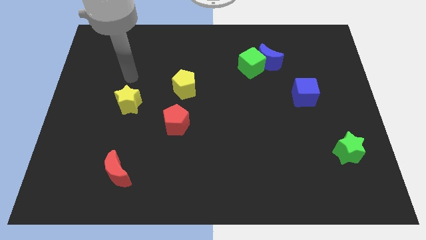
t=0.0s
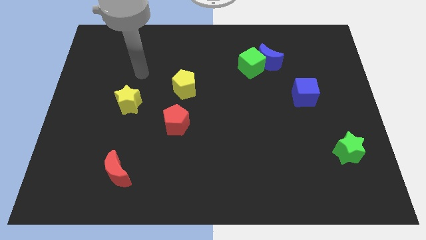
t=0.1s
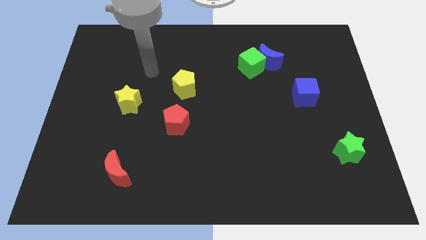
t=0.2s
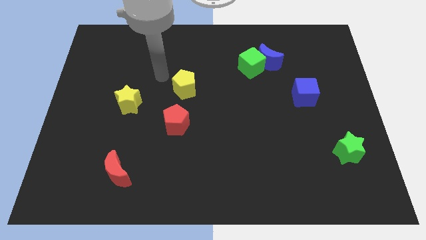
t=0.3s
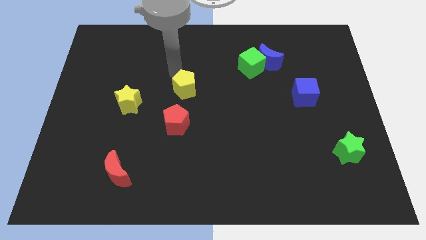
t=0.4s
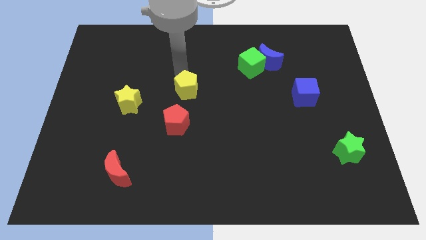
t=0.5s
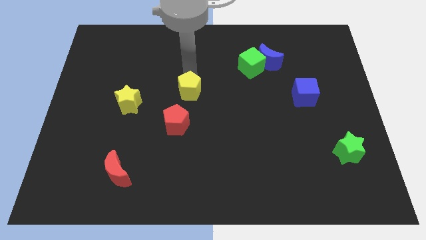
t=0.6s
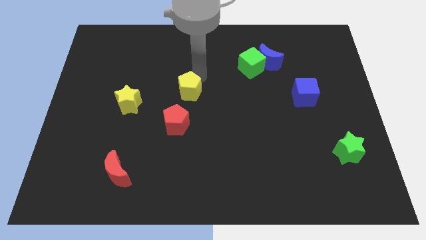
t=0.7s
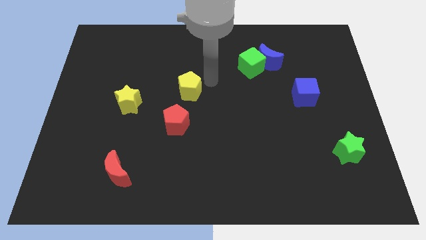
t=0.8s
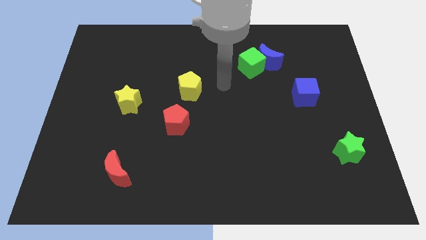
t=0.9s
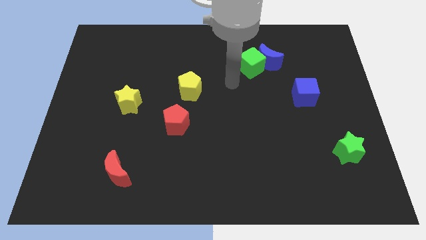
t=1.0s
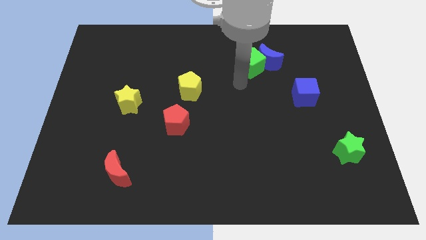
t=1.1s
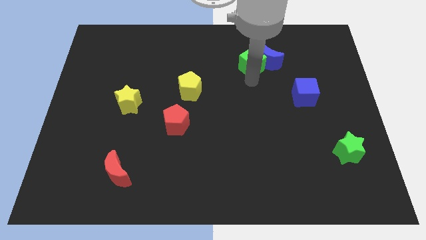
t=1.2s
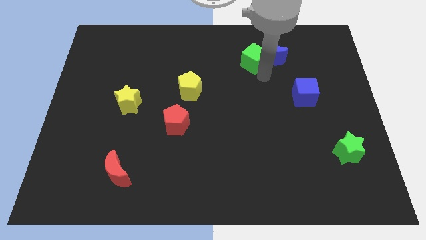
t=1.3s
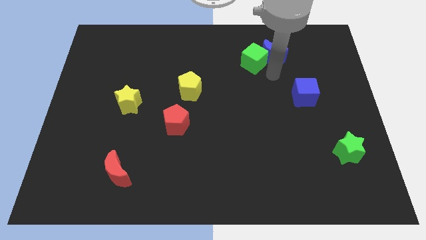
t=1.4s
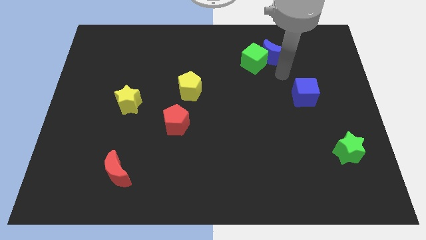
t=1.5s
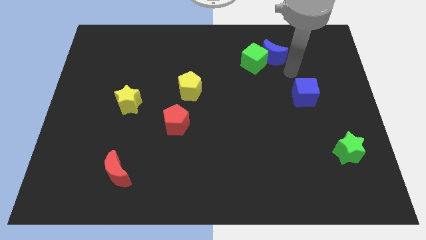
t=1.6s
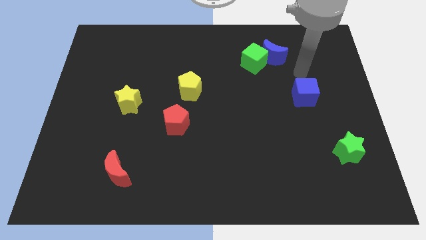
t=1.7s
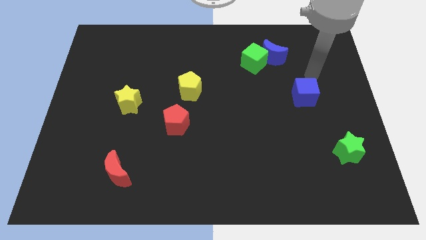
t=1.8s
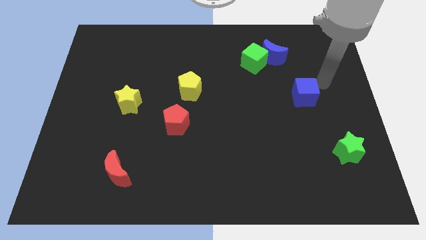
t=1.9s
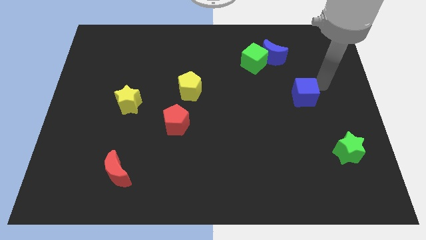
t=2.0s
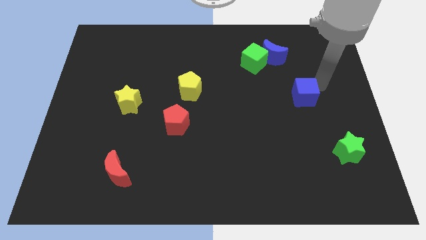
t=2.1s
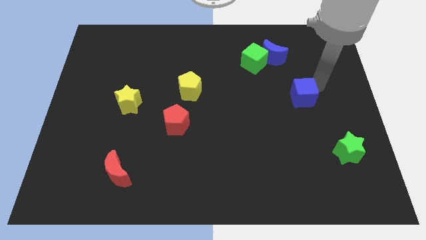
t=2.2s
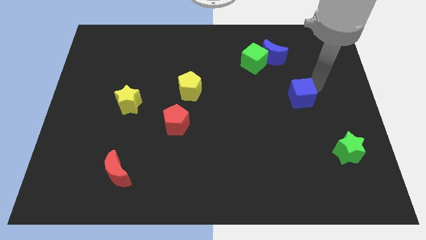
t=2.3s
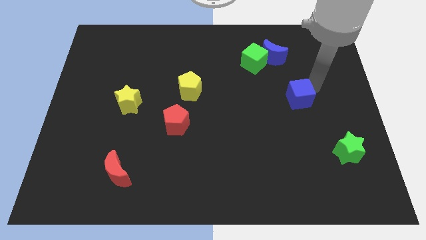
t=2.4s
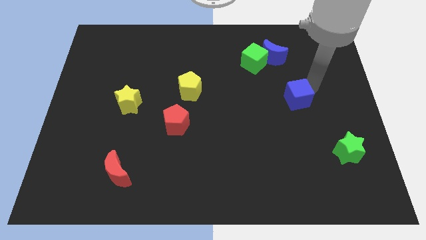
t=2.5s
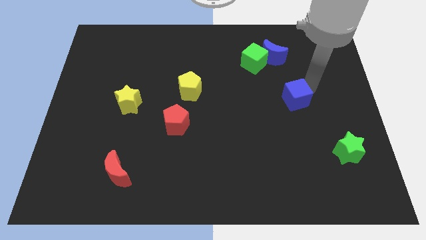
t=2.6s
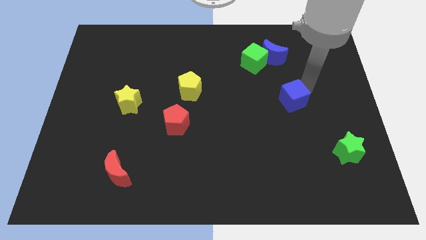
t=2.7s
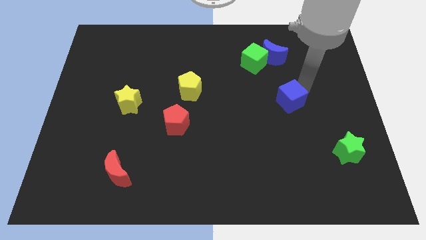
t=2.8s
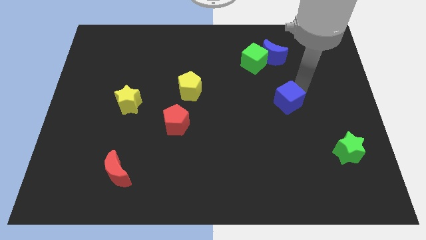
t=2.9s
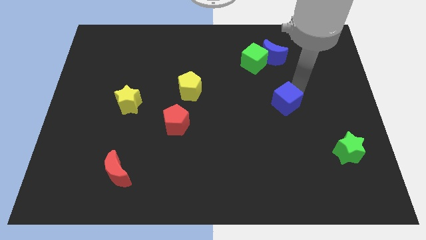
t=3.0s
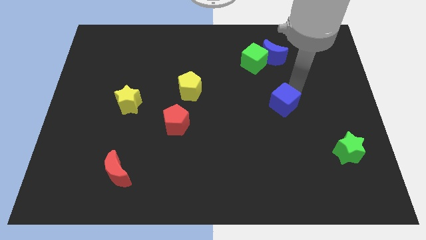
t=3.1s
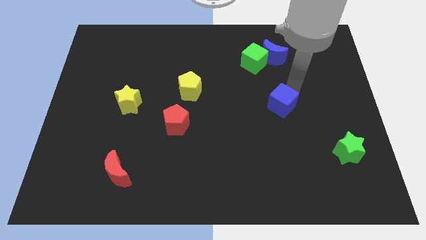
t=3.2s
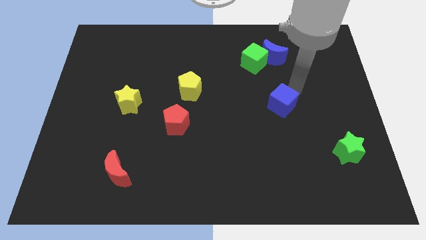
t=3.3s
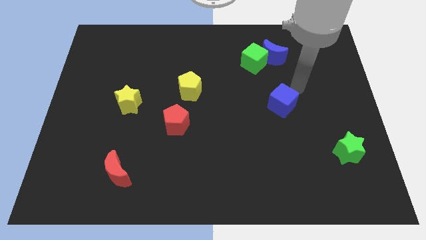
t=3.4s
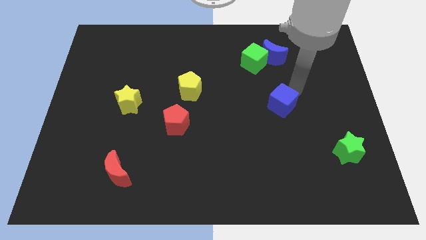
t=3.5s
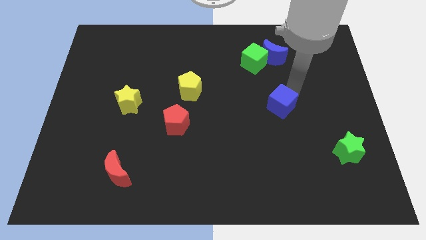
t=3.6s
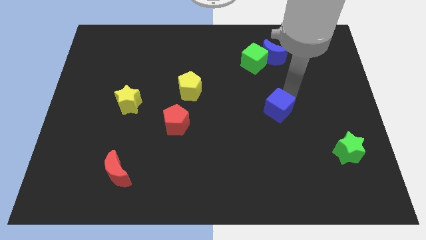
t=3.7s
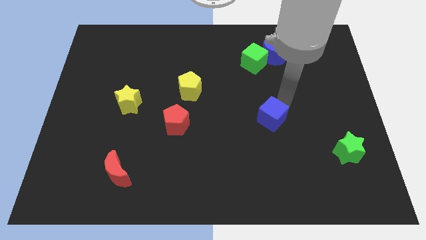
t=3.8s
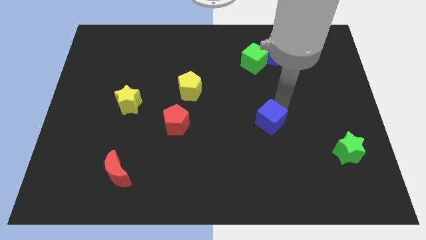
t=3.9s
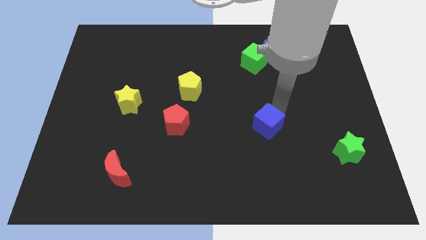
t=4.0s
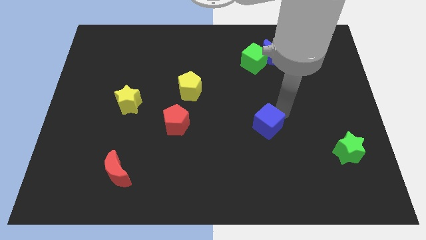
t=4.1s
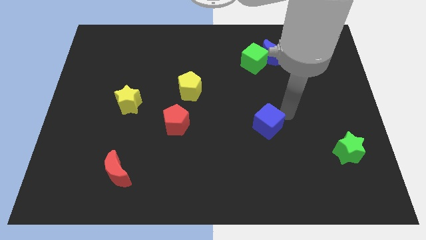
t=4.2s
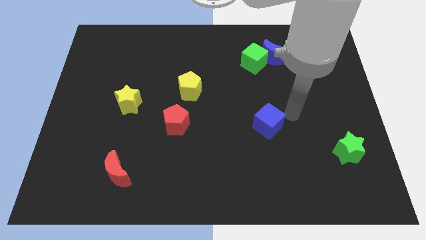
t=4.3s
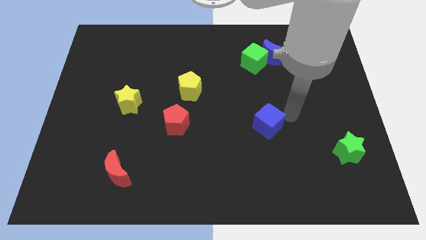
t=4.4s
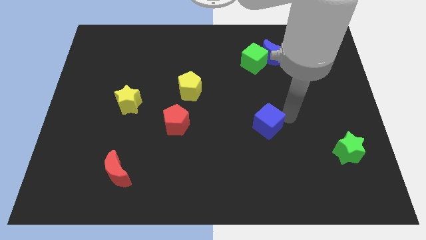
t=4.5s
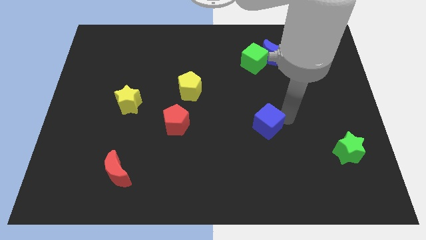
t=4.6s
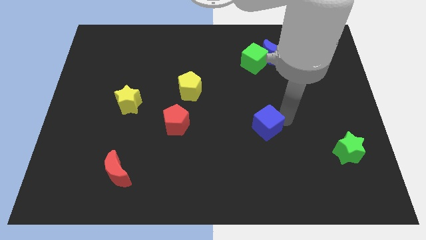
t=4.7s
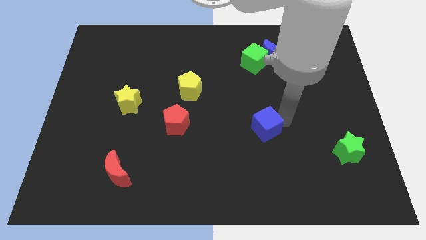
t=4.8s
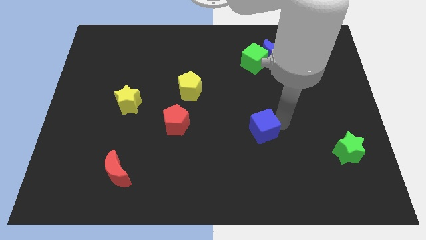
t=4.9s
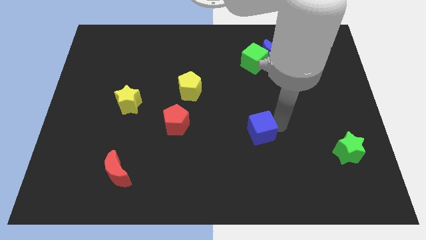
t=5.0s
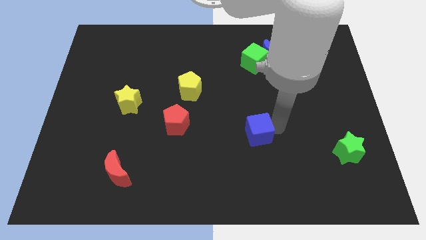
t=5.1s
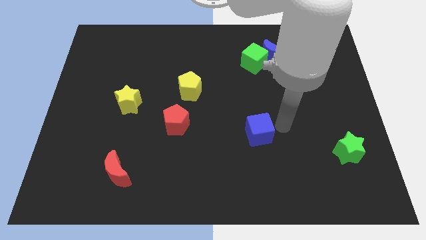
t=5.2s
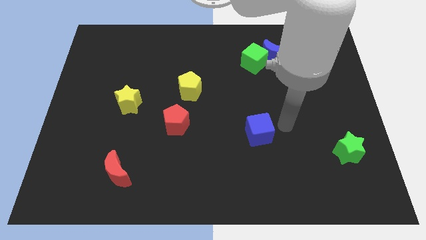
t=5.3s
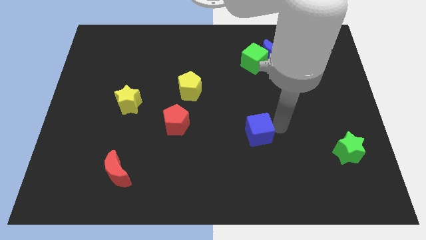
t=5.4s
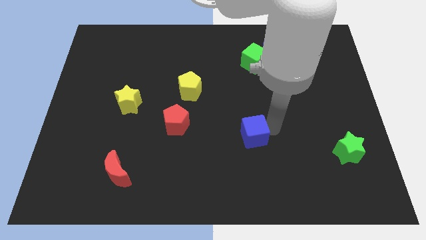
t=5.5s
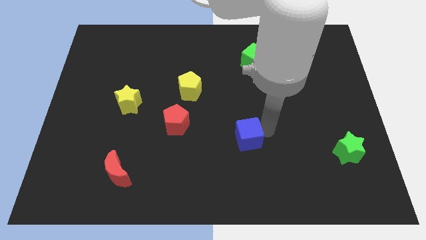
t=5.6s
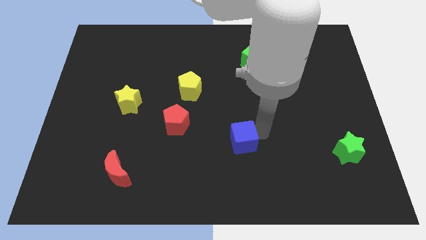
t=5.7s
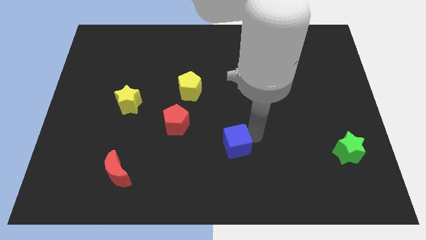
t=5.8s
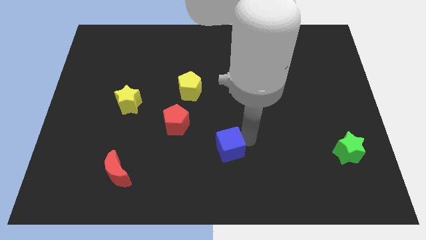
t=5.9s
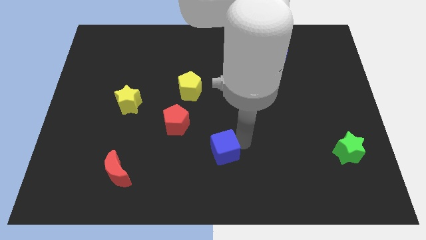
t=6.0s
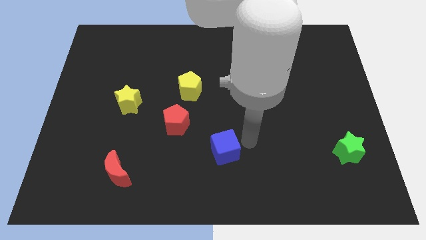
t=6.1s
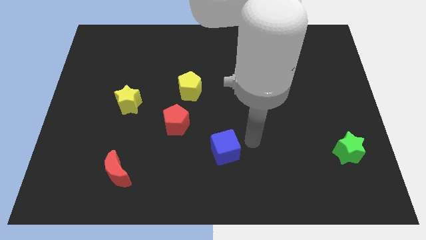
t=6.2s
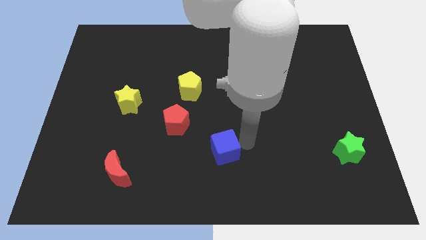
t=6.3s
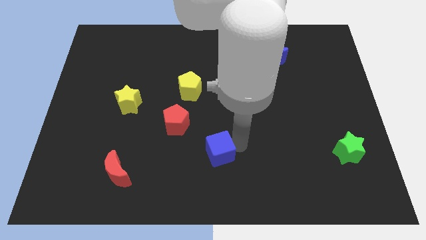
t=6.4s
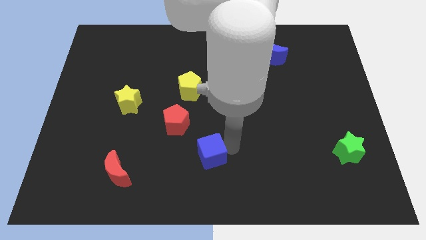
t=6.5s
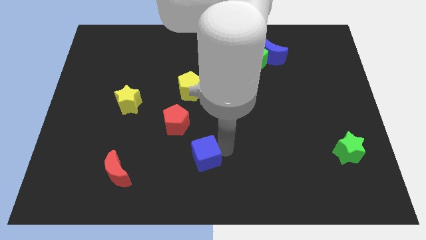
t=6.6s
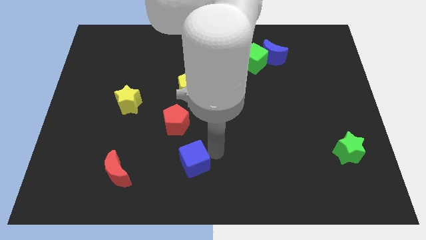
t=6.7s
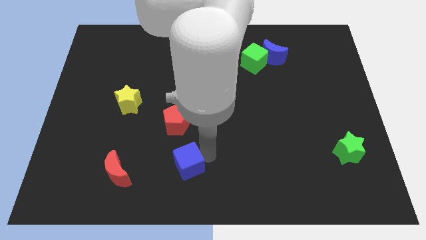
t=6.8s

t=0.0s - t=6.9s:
put the blue cube to the right side of the red moon

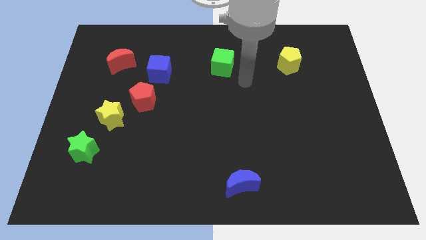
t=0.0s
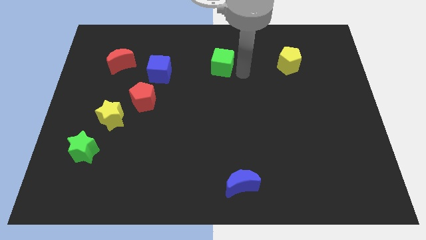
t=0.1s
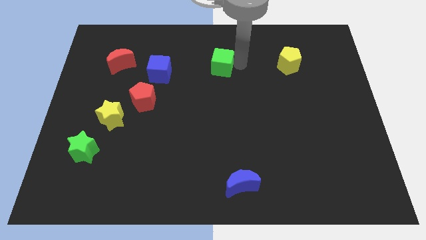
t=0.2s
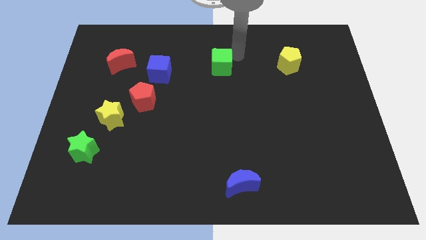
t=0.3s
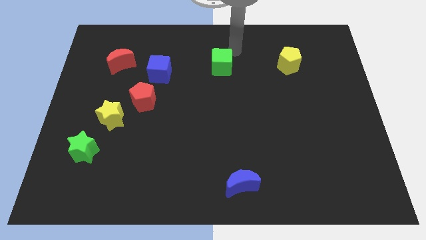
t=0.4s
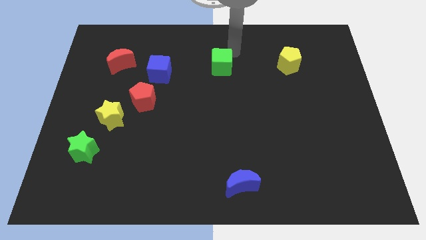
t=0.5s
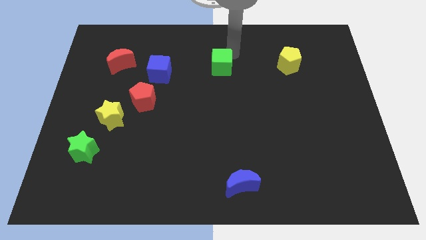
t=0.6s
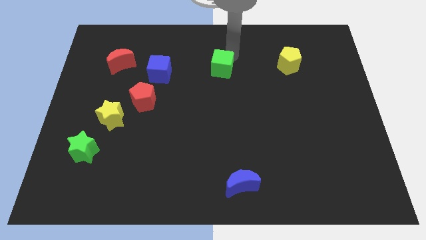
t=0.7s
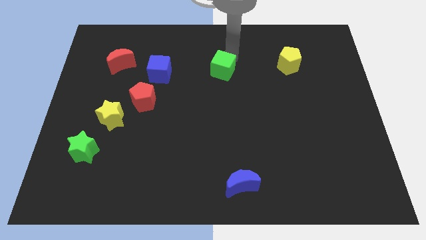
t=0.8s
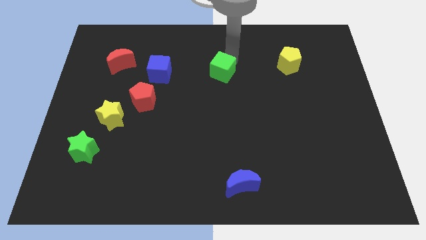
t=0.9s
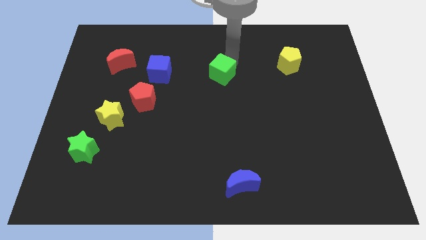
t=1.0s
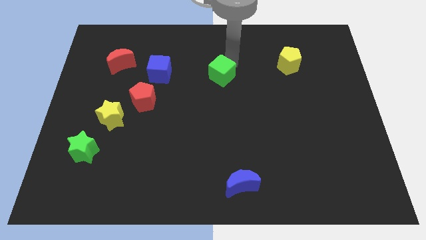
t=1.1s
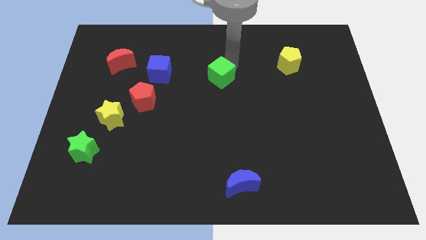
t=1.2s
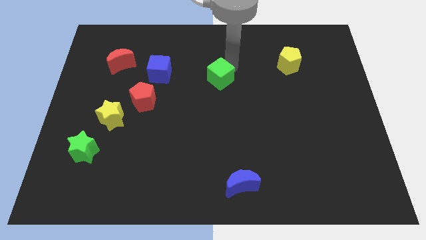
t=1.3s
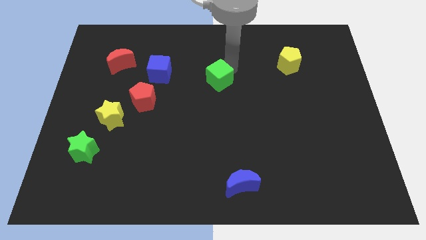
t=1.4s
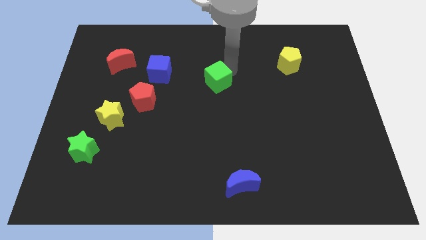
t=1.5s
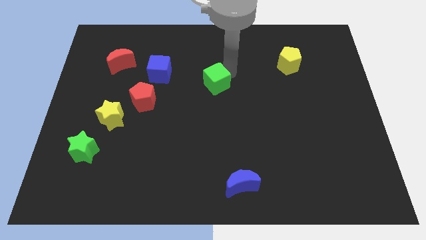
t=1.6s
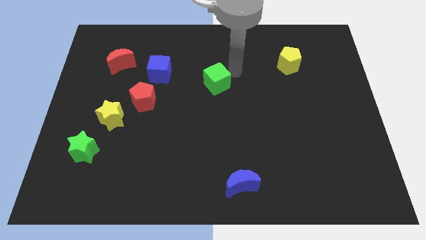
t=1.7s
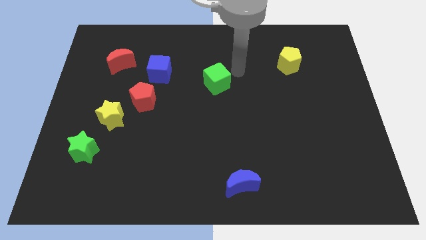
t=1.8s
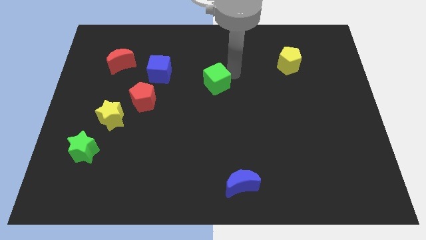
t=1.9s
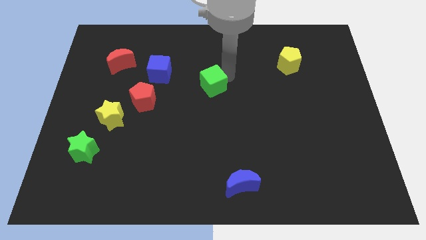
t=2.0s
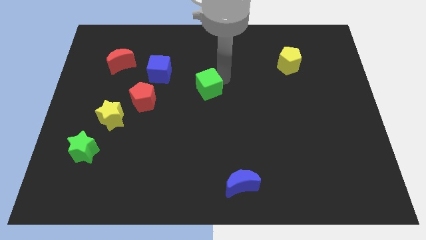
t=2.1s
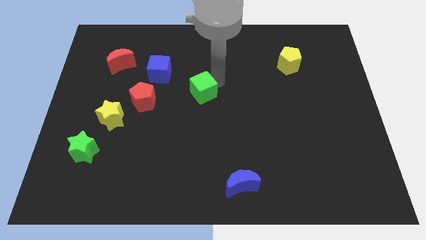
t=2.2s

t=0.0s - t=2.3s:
slide the green cube just right of the red pentagon
